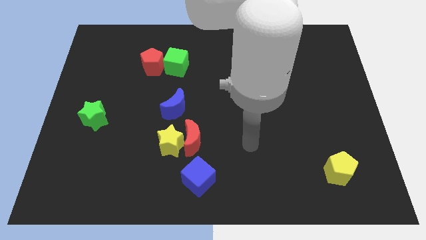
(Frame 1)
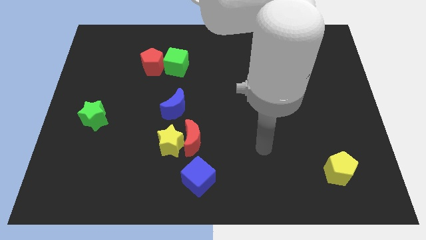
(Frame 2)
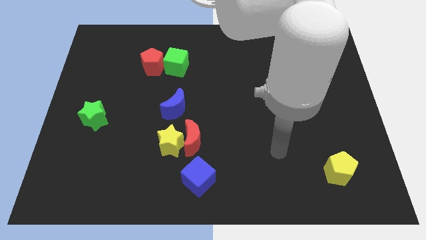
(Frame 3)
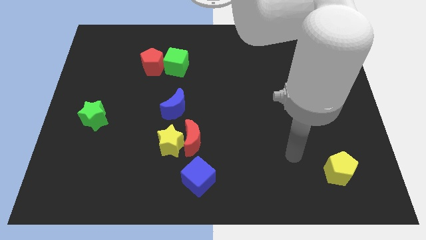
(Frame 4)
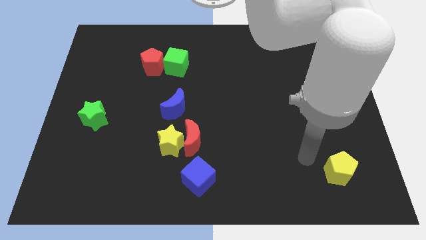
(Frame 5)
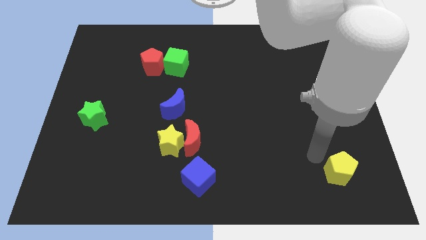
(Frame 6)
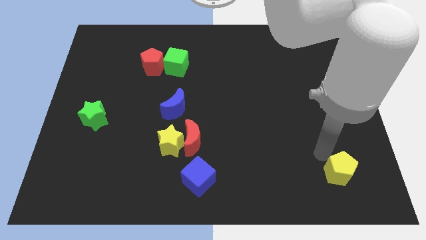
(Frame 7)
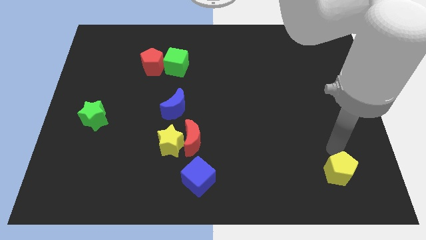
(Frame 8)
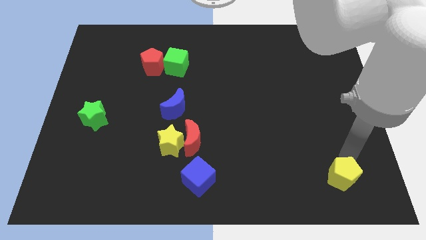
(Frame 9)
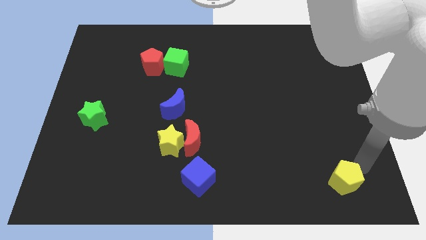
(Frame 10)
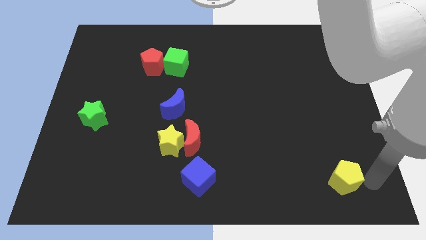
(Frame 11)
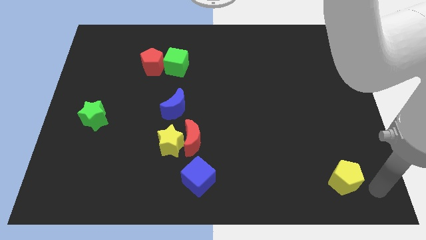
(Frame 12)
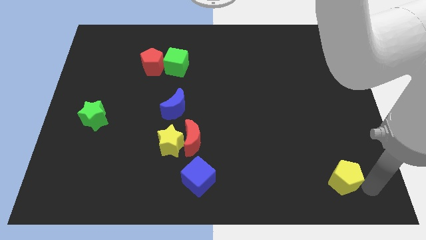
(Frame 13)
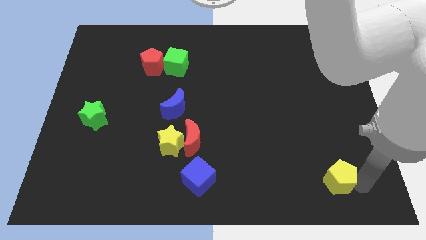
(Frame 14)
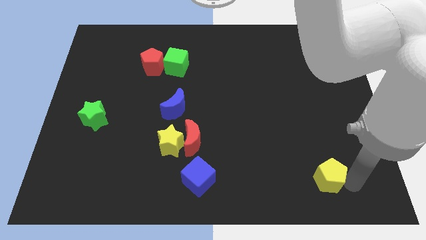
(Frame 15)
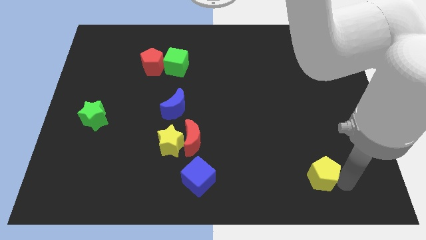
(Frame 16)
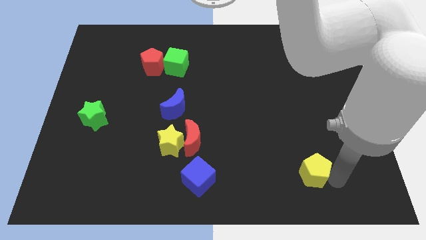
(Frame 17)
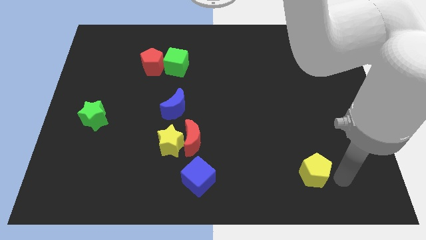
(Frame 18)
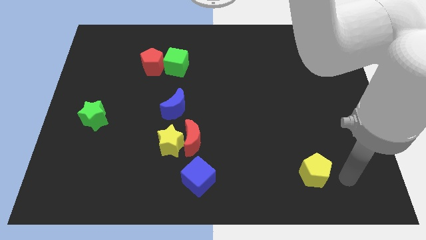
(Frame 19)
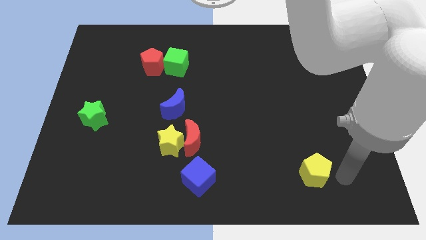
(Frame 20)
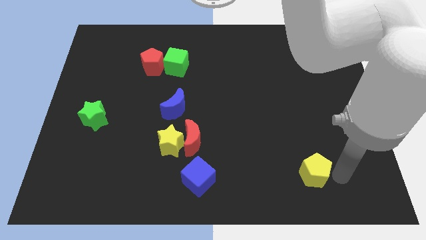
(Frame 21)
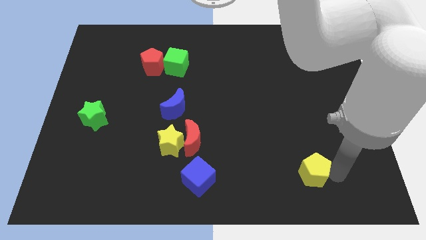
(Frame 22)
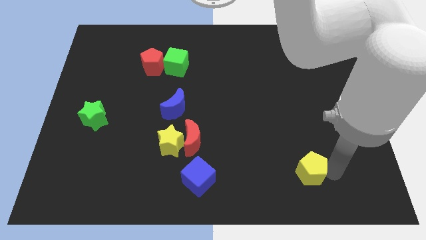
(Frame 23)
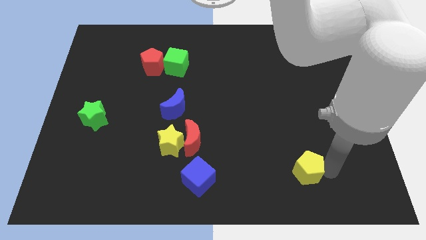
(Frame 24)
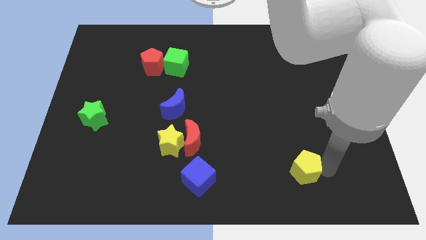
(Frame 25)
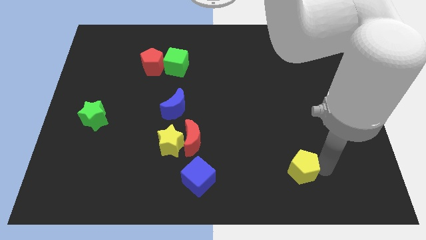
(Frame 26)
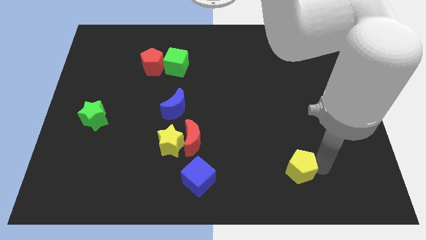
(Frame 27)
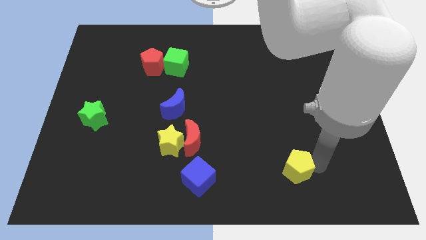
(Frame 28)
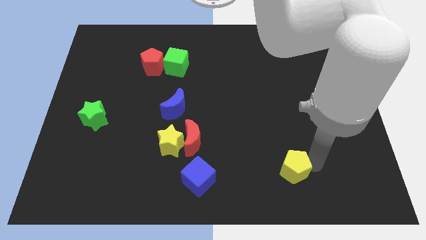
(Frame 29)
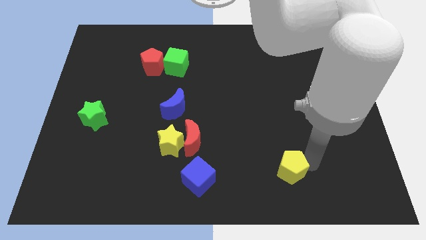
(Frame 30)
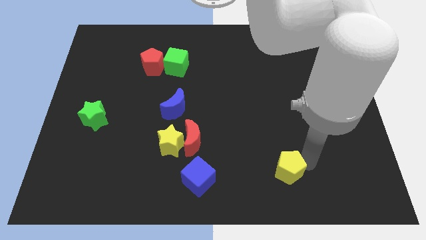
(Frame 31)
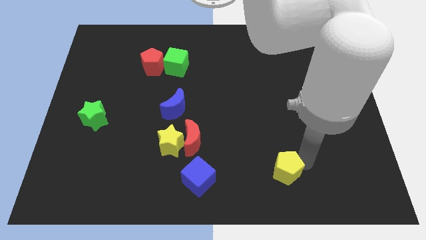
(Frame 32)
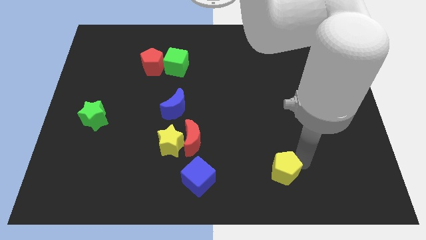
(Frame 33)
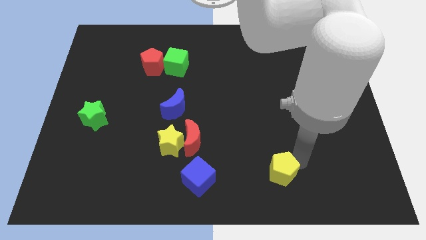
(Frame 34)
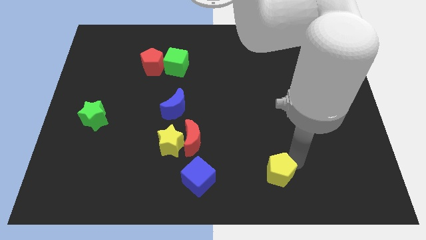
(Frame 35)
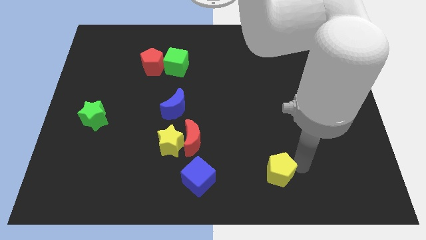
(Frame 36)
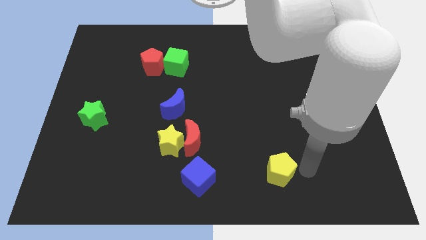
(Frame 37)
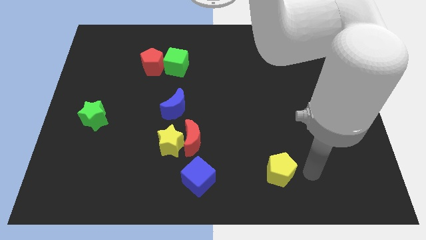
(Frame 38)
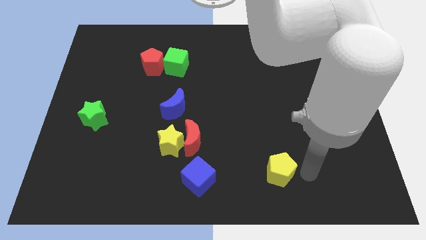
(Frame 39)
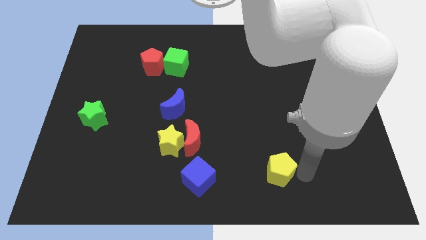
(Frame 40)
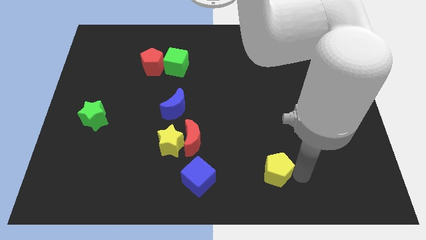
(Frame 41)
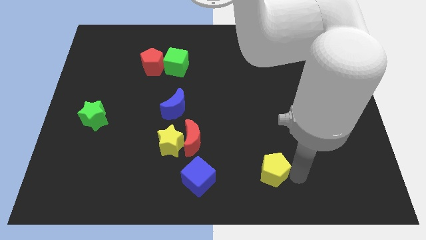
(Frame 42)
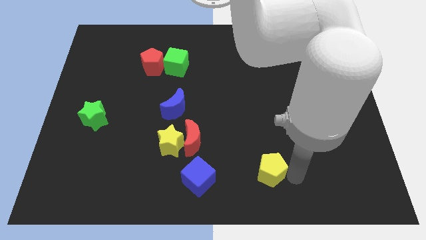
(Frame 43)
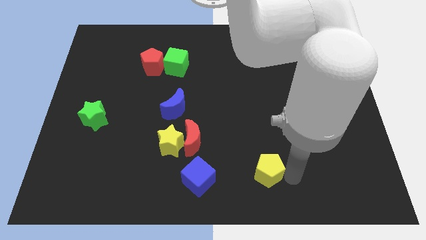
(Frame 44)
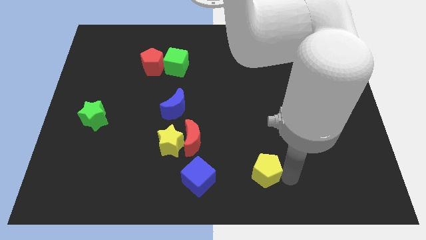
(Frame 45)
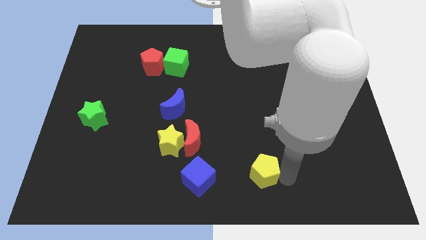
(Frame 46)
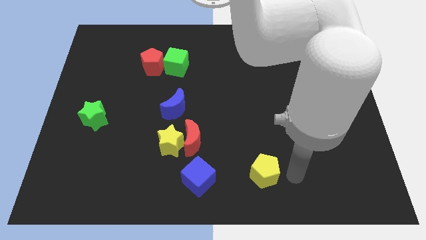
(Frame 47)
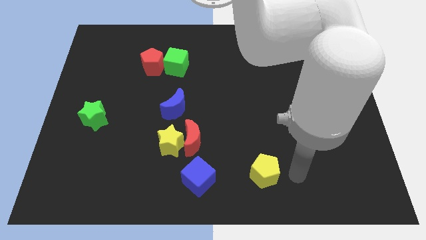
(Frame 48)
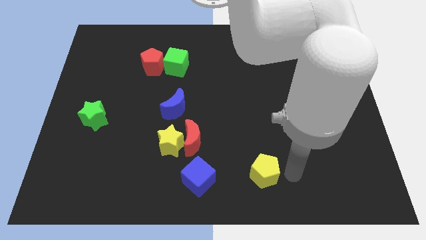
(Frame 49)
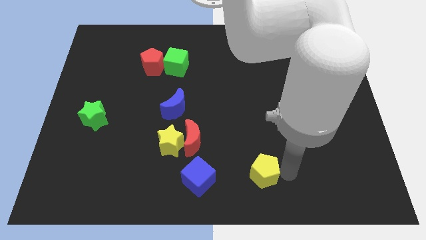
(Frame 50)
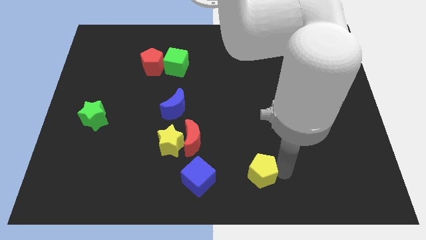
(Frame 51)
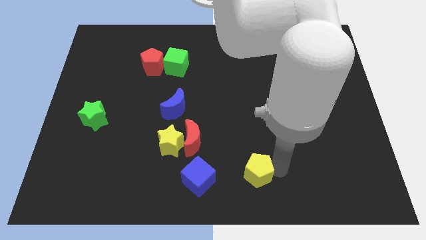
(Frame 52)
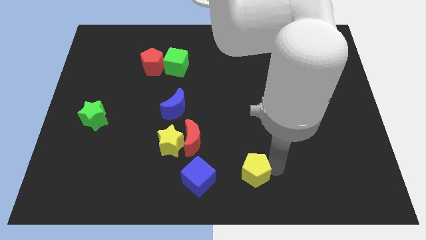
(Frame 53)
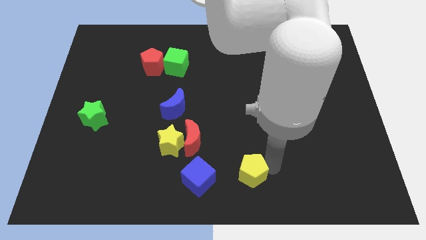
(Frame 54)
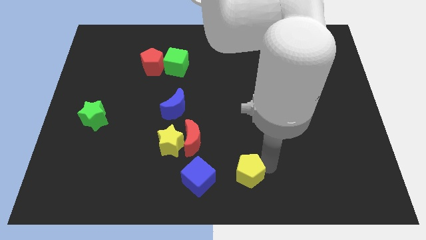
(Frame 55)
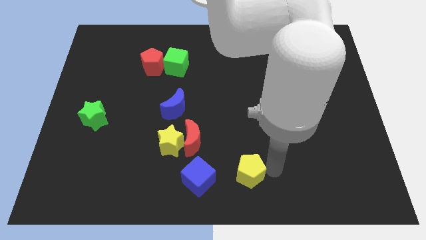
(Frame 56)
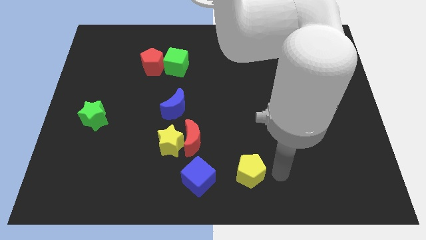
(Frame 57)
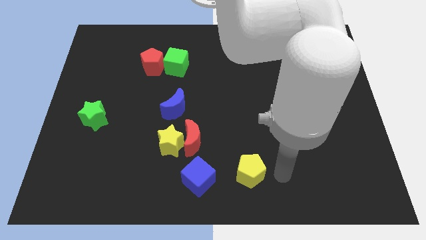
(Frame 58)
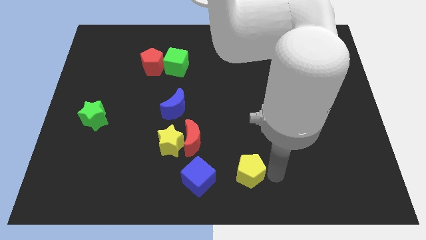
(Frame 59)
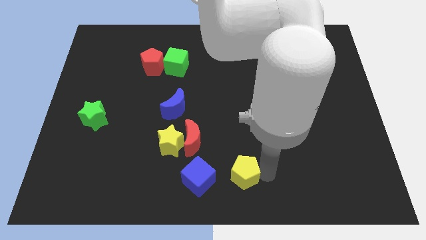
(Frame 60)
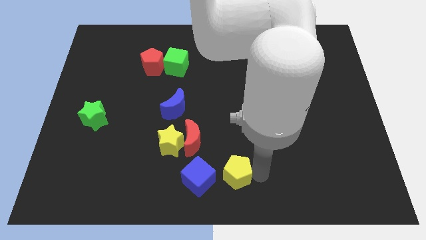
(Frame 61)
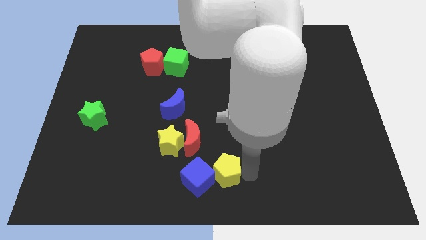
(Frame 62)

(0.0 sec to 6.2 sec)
put the yellow pentagon close to the blue cube

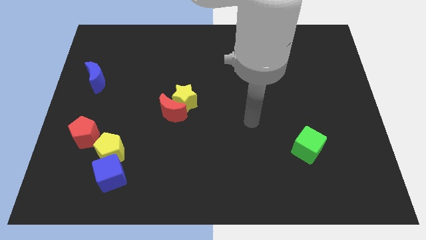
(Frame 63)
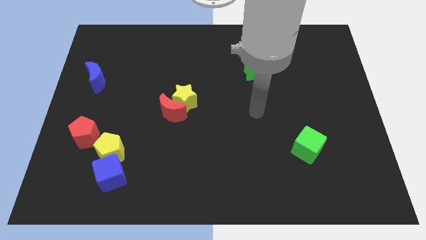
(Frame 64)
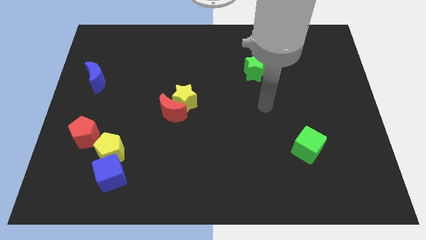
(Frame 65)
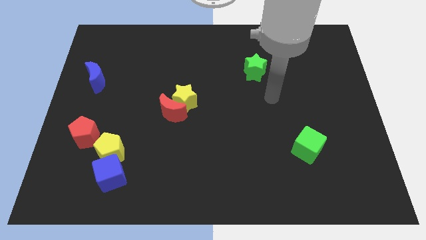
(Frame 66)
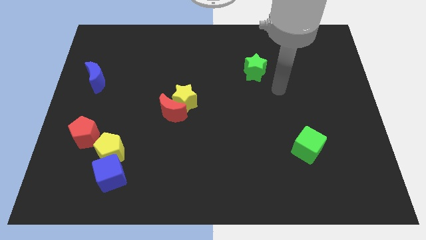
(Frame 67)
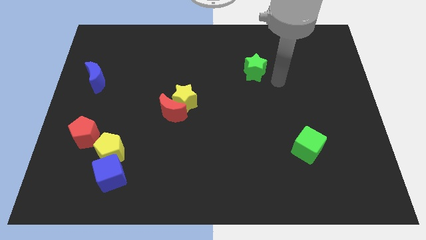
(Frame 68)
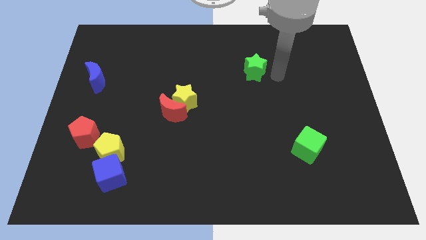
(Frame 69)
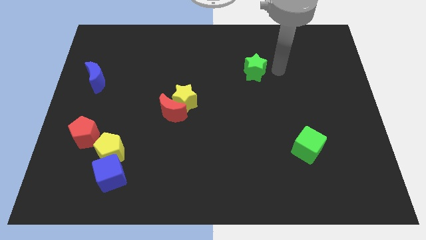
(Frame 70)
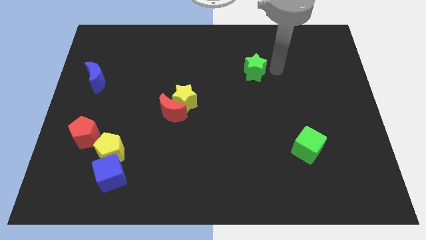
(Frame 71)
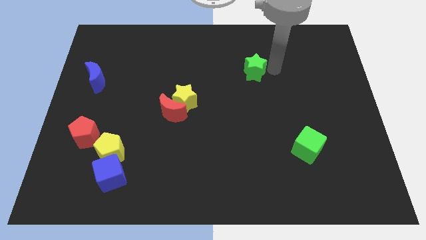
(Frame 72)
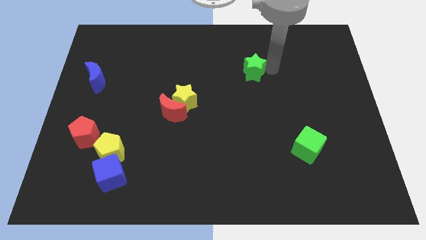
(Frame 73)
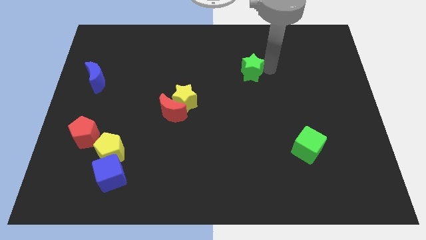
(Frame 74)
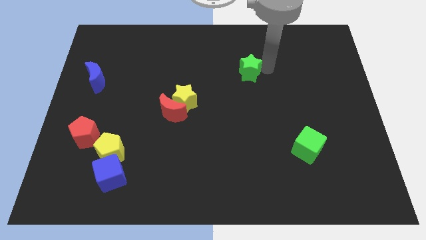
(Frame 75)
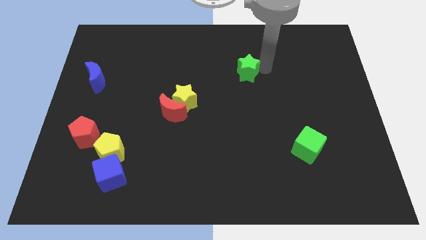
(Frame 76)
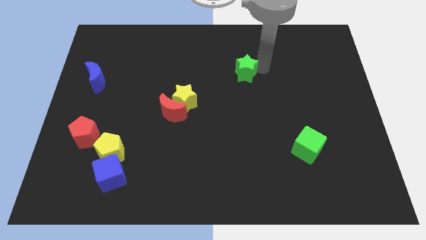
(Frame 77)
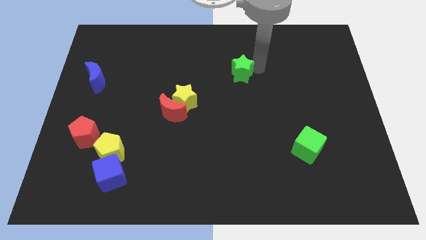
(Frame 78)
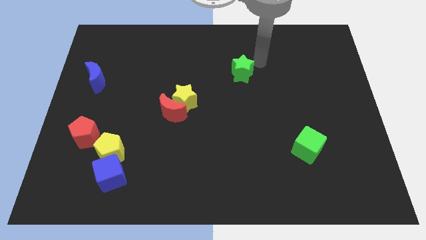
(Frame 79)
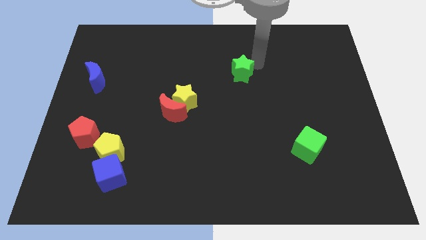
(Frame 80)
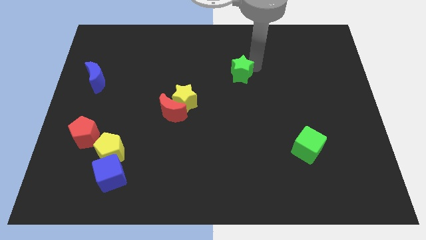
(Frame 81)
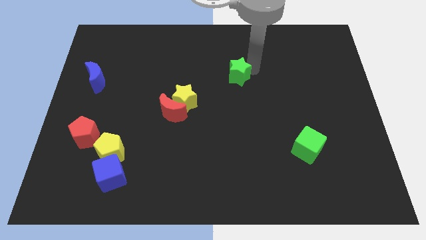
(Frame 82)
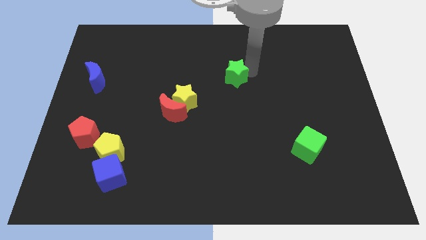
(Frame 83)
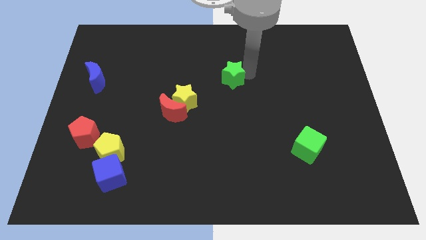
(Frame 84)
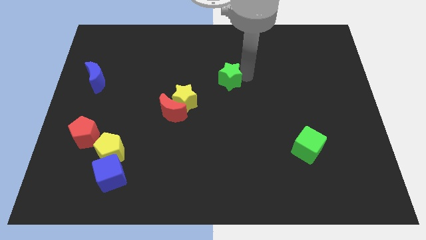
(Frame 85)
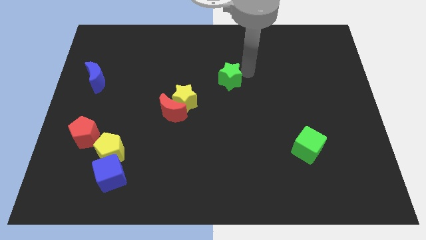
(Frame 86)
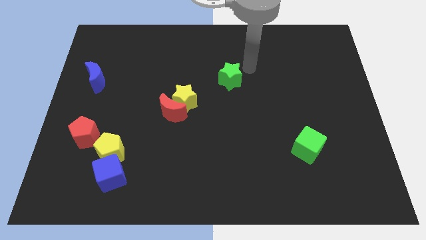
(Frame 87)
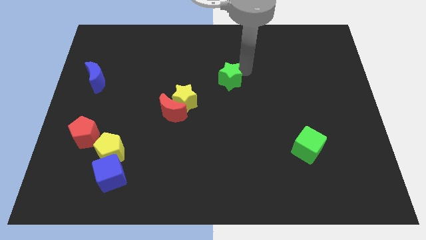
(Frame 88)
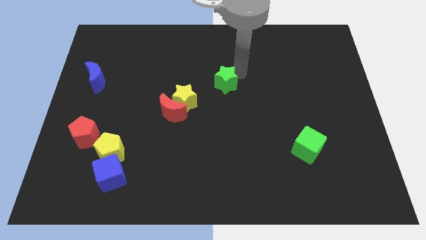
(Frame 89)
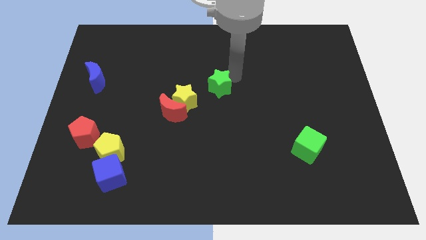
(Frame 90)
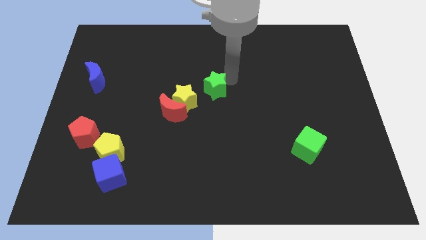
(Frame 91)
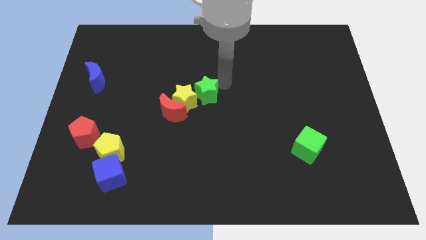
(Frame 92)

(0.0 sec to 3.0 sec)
put the green star towards the yellow star
